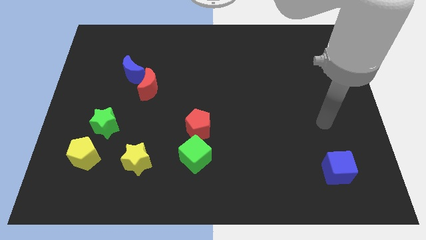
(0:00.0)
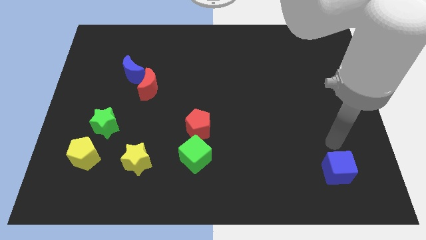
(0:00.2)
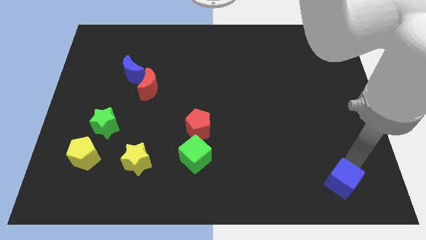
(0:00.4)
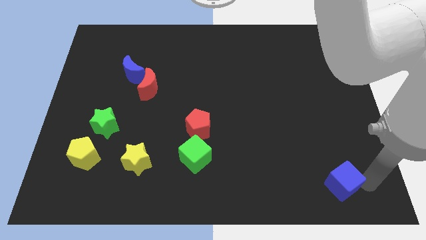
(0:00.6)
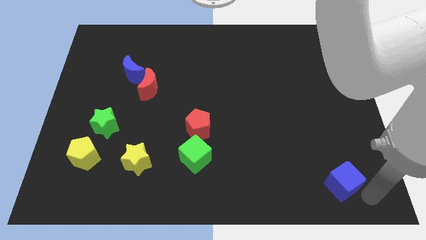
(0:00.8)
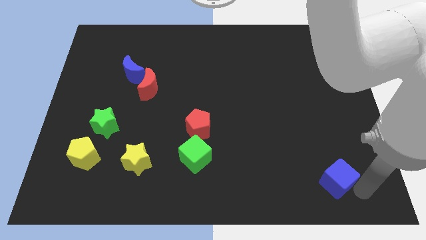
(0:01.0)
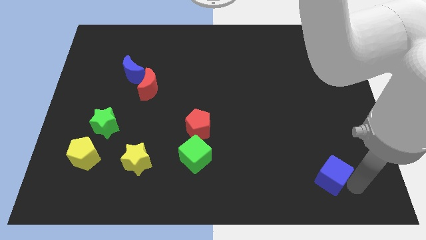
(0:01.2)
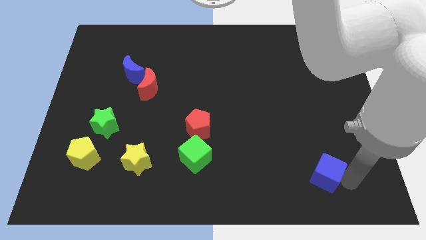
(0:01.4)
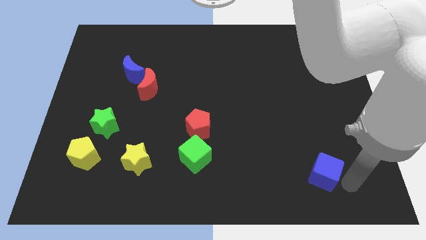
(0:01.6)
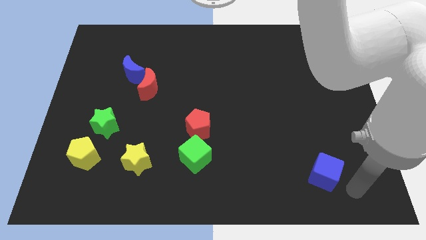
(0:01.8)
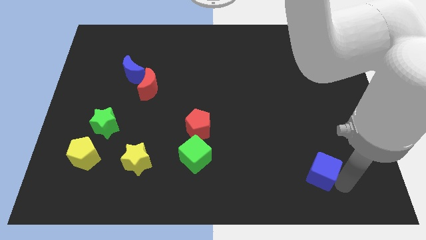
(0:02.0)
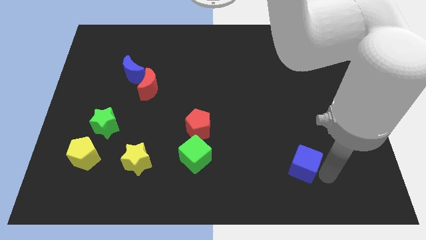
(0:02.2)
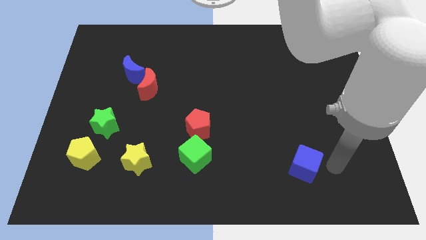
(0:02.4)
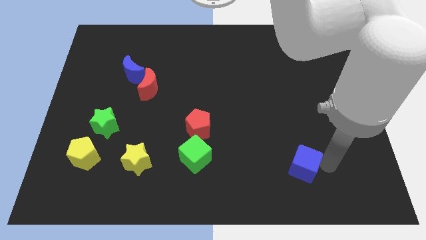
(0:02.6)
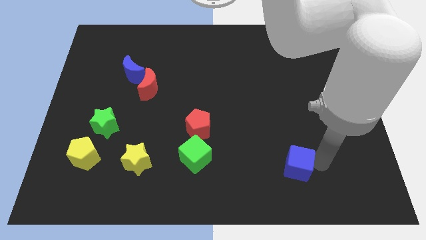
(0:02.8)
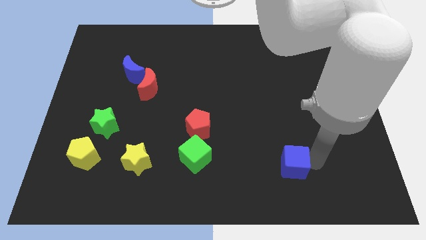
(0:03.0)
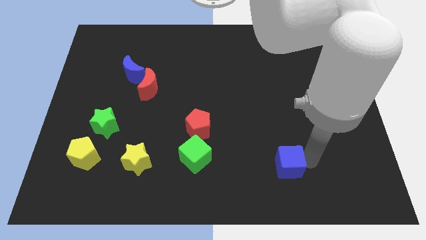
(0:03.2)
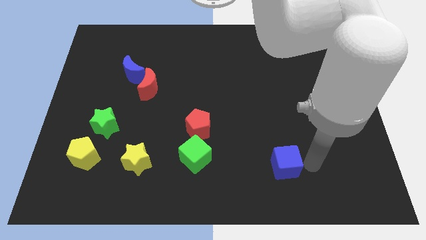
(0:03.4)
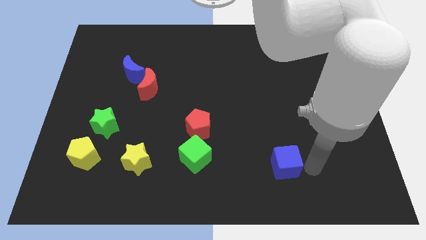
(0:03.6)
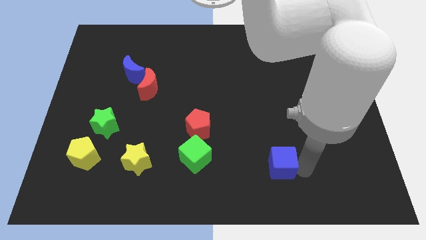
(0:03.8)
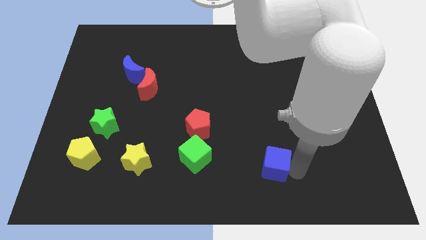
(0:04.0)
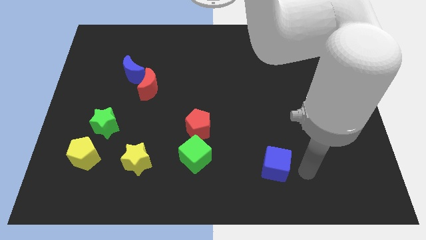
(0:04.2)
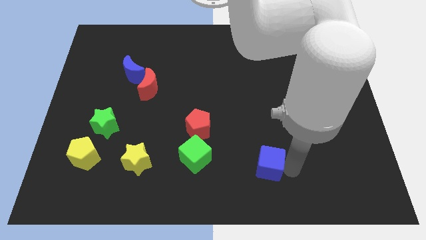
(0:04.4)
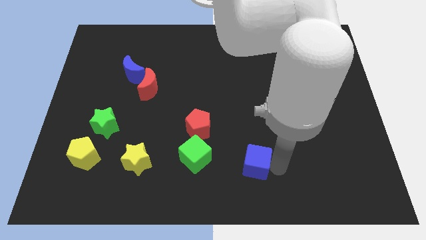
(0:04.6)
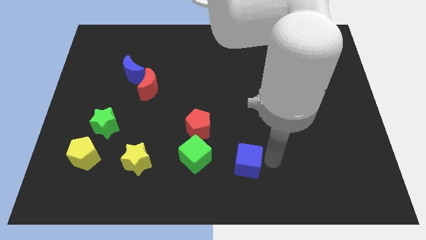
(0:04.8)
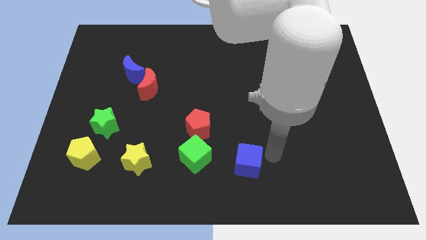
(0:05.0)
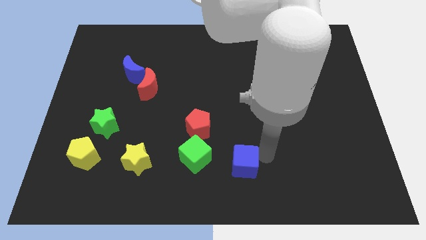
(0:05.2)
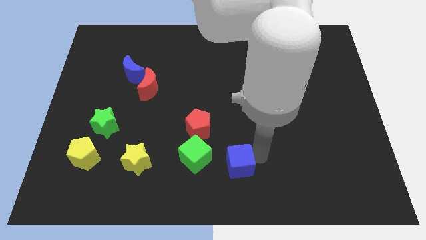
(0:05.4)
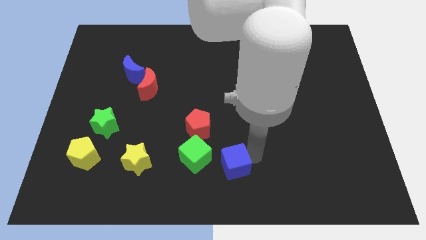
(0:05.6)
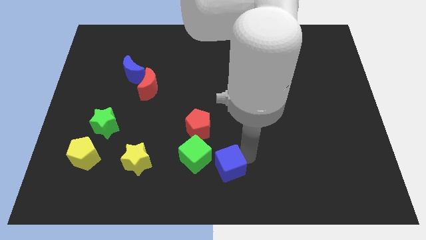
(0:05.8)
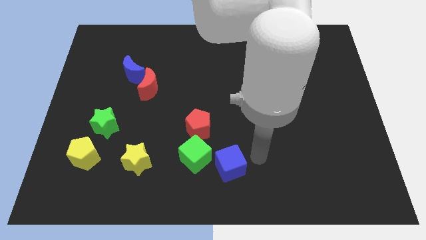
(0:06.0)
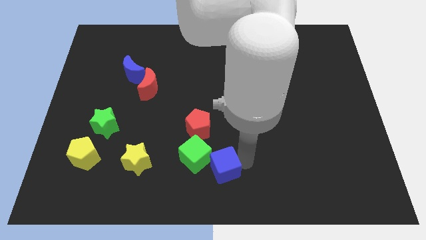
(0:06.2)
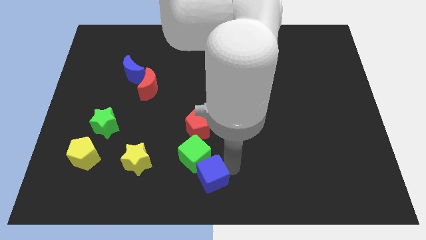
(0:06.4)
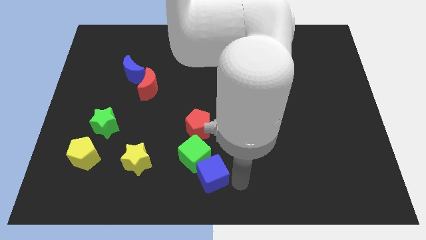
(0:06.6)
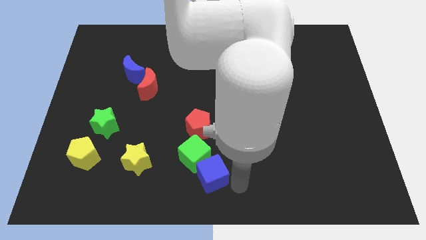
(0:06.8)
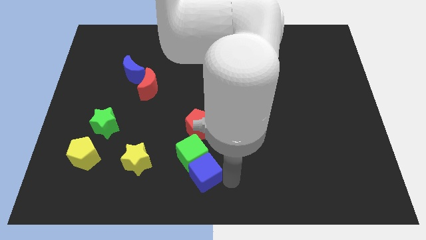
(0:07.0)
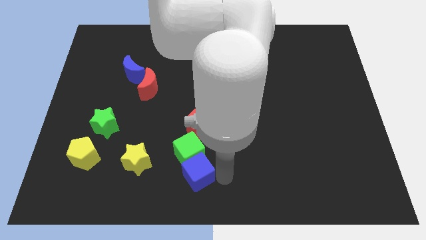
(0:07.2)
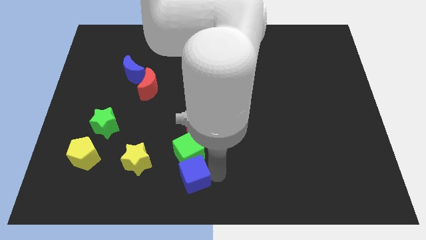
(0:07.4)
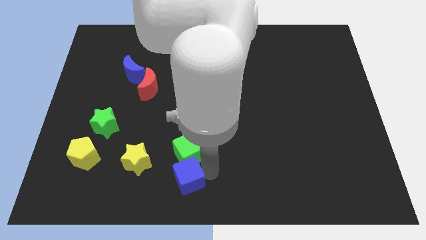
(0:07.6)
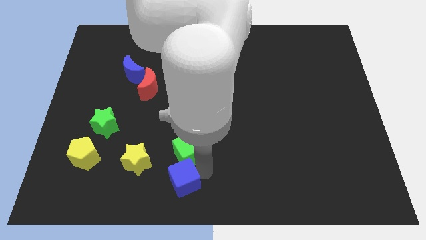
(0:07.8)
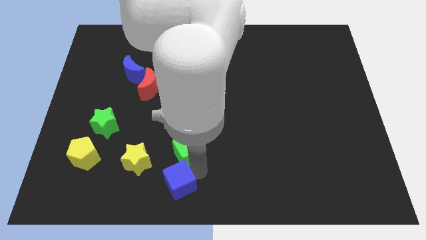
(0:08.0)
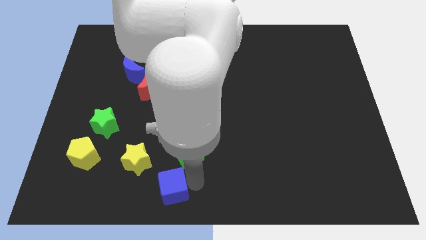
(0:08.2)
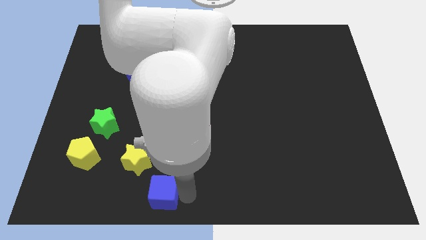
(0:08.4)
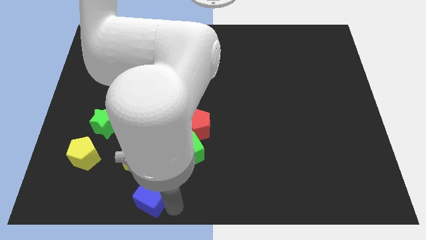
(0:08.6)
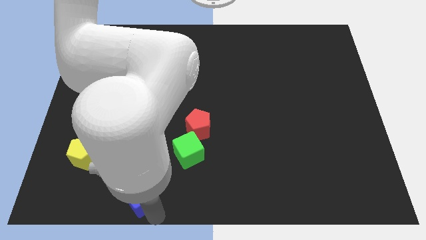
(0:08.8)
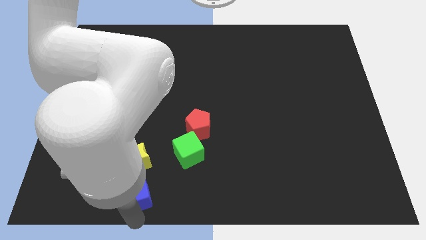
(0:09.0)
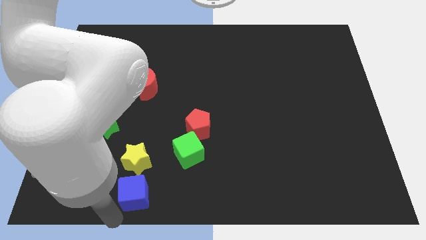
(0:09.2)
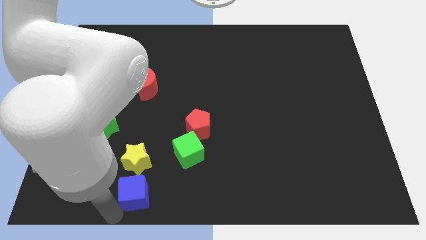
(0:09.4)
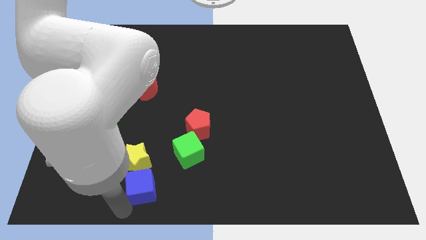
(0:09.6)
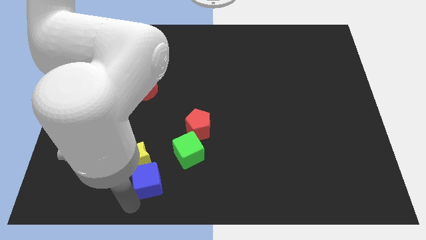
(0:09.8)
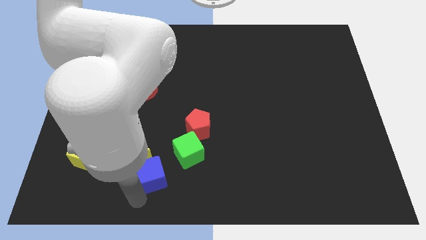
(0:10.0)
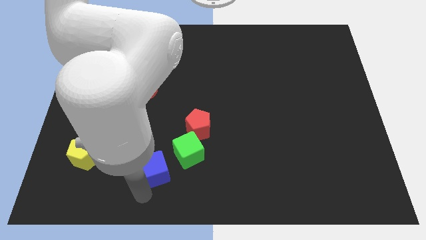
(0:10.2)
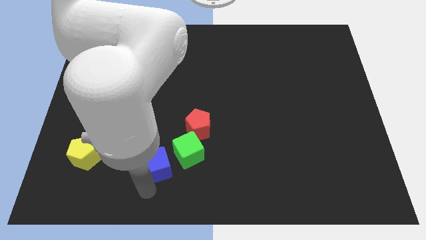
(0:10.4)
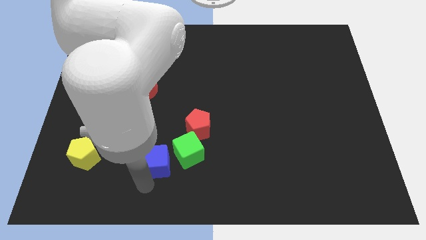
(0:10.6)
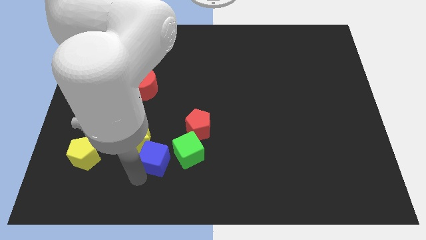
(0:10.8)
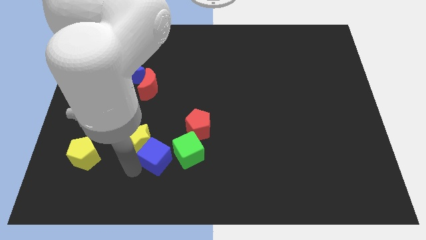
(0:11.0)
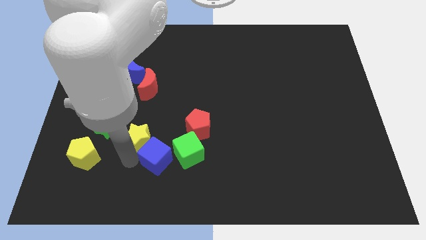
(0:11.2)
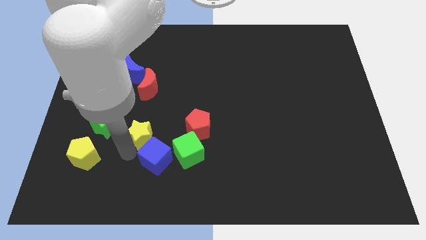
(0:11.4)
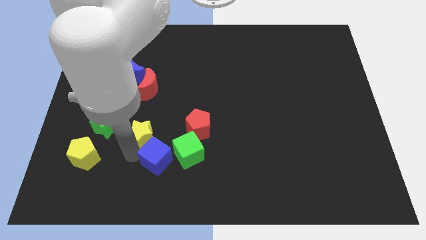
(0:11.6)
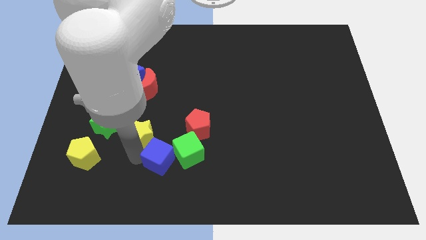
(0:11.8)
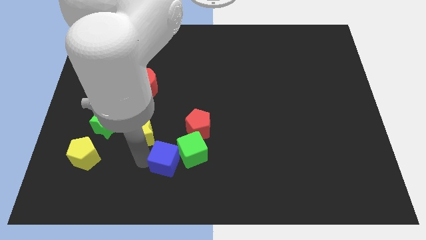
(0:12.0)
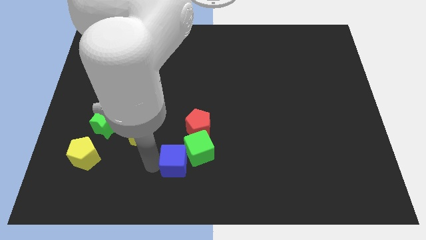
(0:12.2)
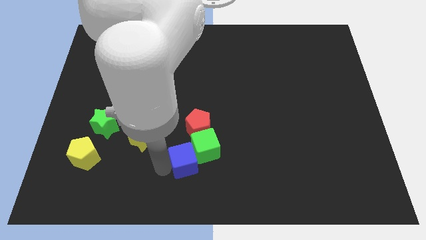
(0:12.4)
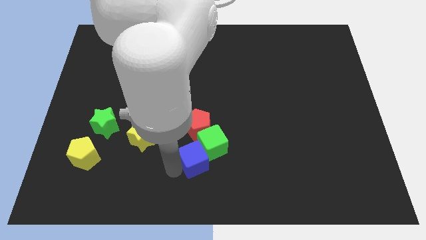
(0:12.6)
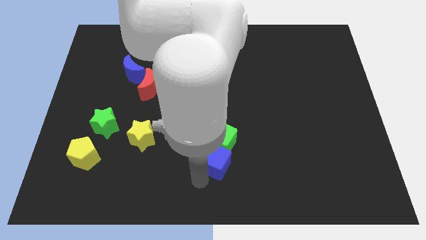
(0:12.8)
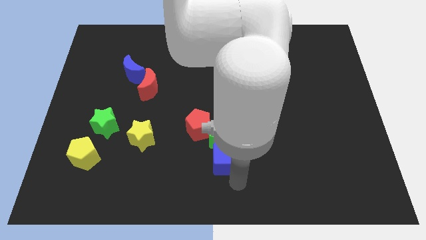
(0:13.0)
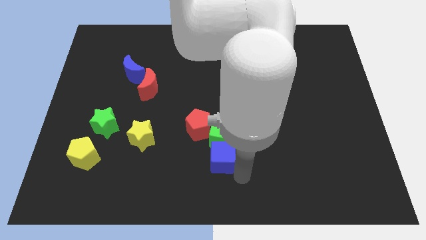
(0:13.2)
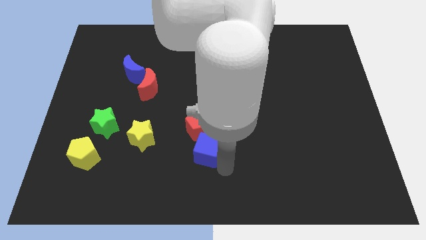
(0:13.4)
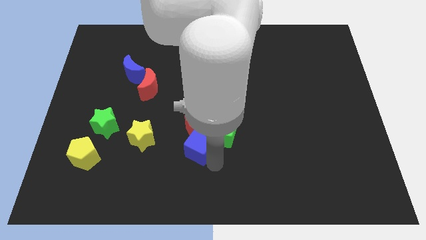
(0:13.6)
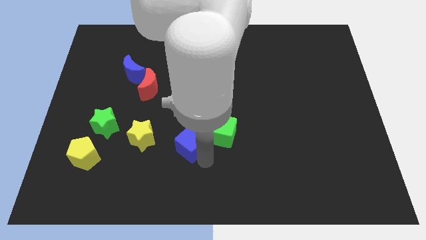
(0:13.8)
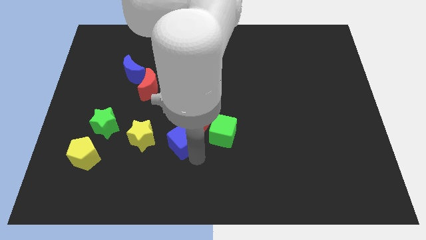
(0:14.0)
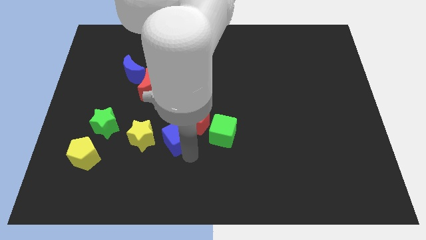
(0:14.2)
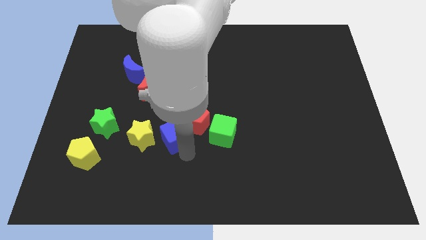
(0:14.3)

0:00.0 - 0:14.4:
move the blue cube to the top right of the yellow star

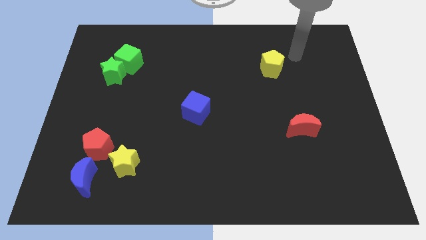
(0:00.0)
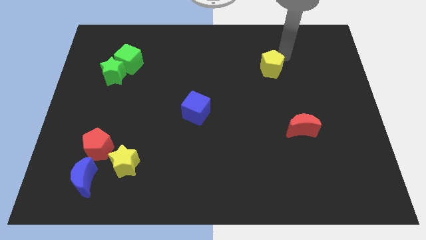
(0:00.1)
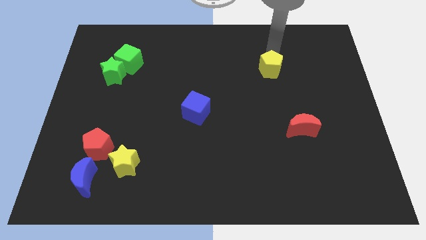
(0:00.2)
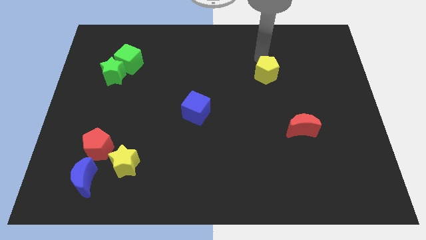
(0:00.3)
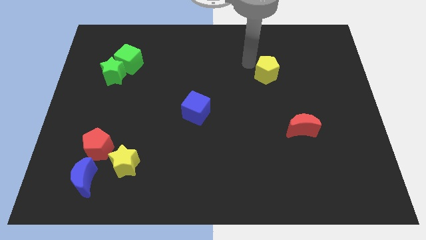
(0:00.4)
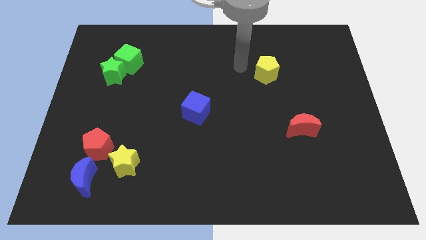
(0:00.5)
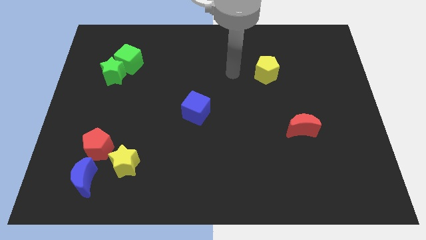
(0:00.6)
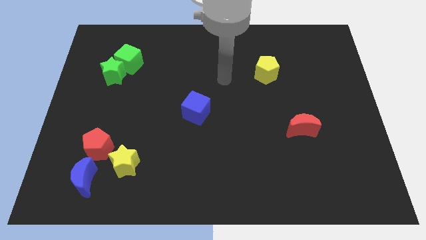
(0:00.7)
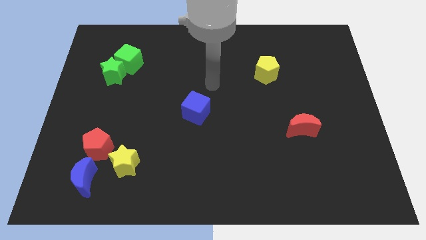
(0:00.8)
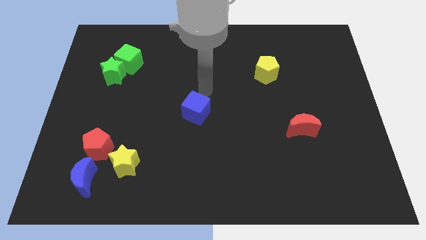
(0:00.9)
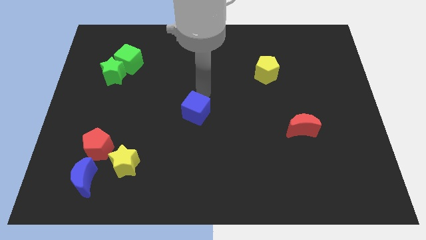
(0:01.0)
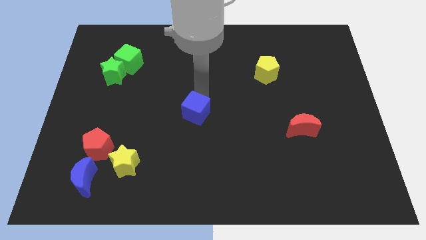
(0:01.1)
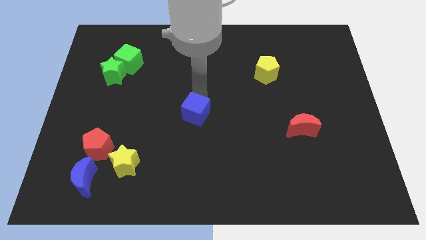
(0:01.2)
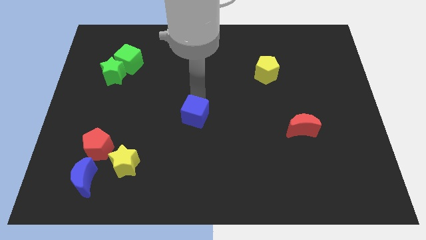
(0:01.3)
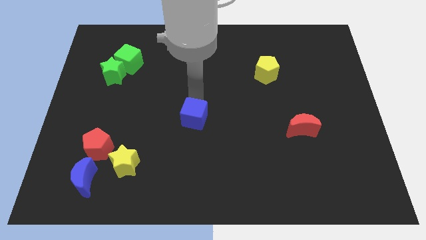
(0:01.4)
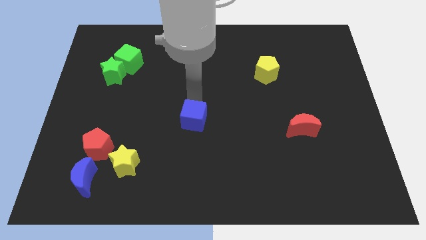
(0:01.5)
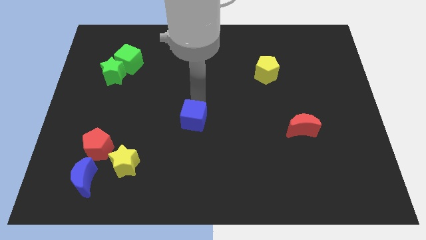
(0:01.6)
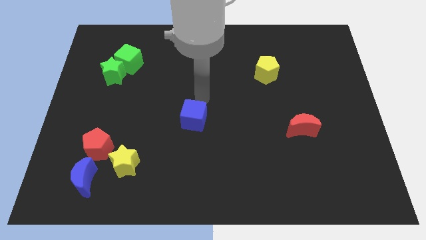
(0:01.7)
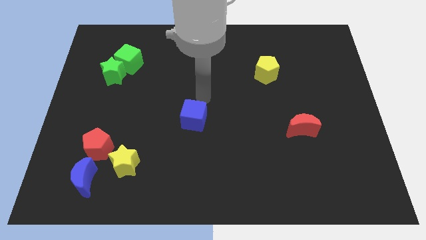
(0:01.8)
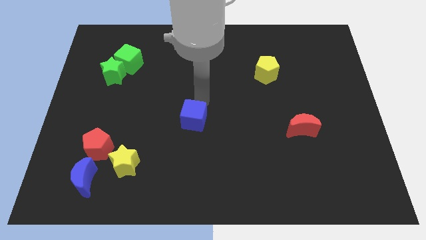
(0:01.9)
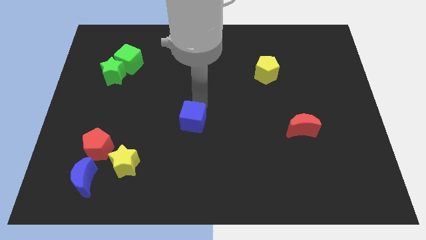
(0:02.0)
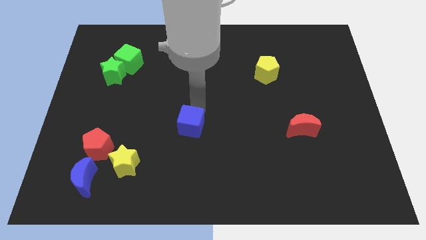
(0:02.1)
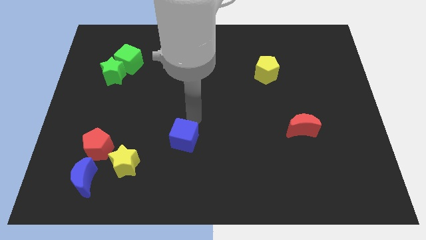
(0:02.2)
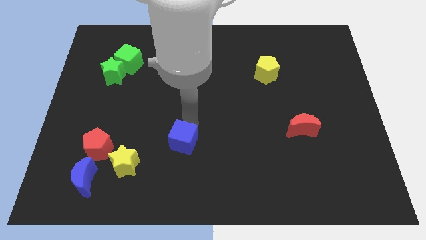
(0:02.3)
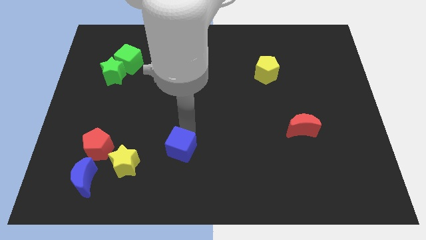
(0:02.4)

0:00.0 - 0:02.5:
slide the blue cube right of the yellow star
